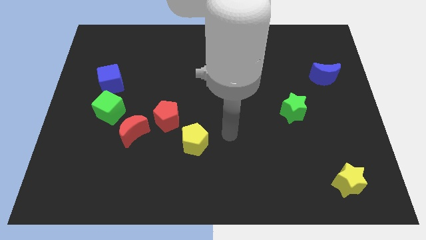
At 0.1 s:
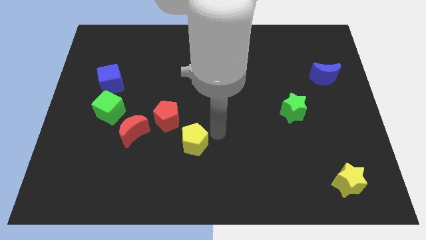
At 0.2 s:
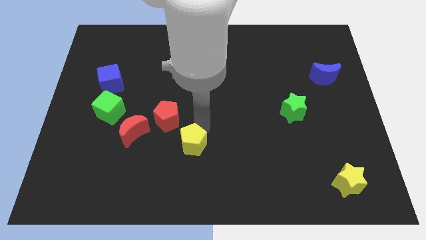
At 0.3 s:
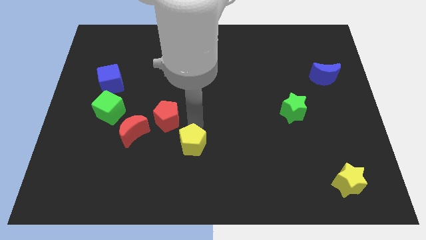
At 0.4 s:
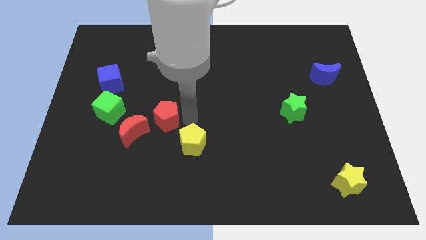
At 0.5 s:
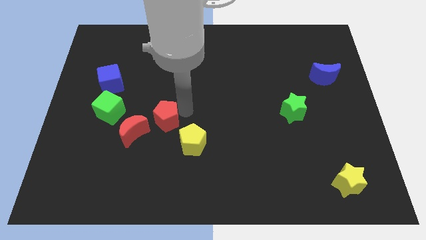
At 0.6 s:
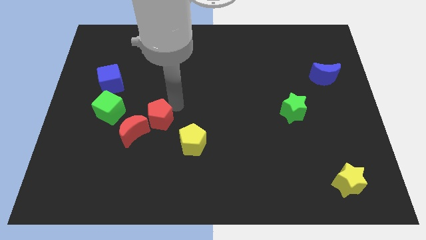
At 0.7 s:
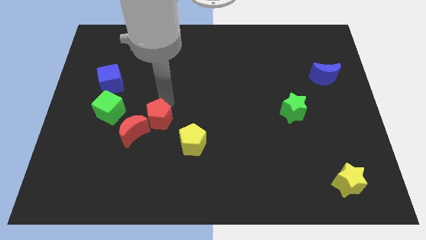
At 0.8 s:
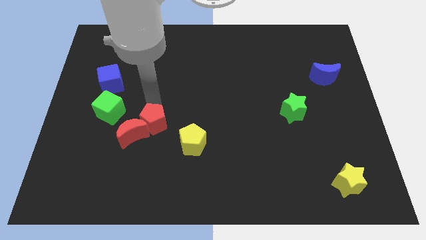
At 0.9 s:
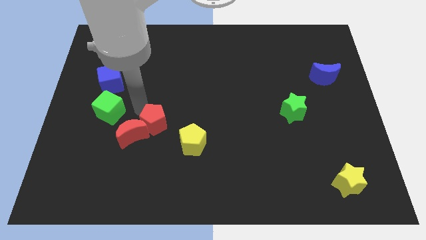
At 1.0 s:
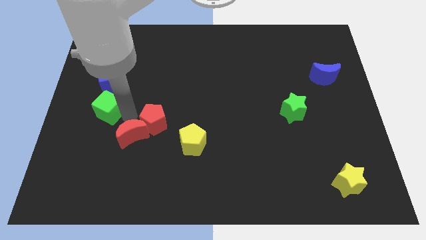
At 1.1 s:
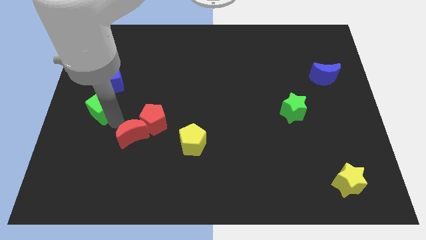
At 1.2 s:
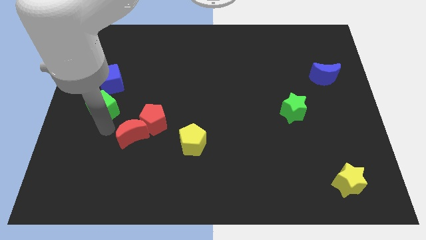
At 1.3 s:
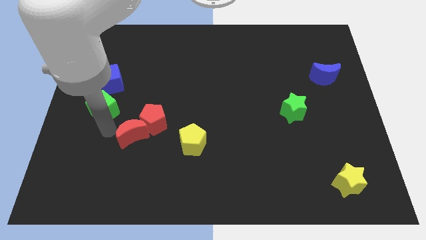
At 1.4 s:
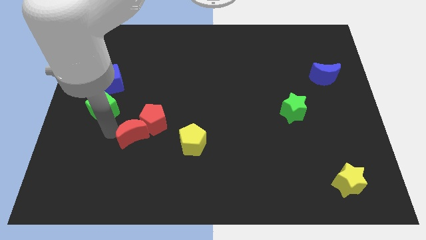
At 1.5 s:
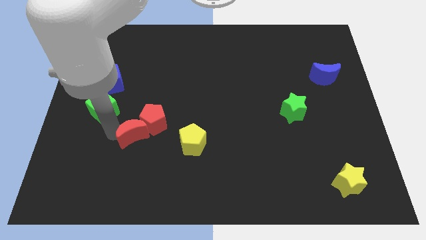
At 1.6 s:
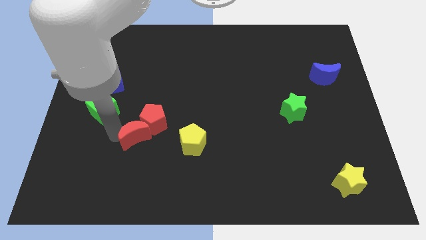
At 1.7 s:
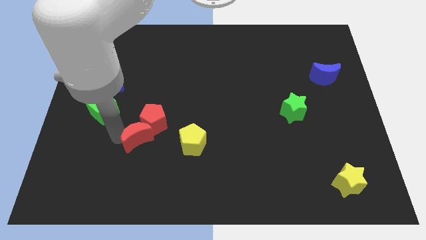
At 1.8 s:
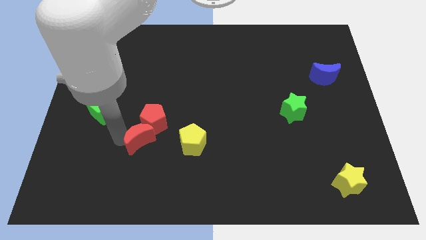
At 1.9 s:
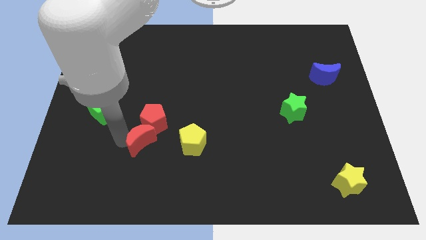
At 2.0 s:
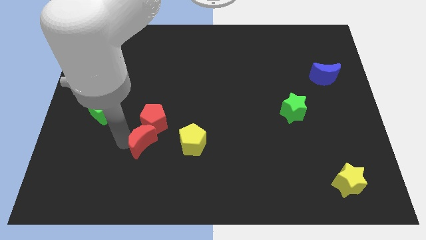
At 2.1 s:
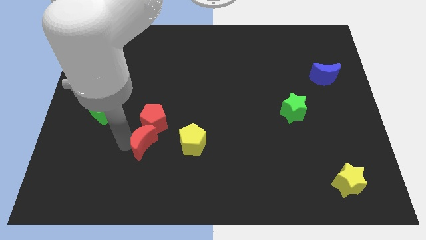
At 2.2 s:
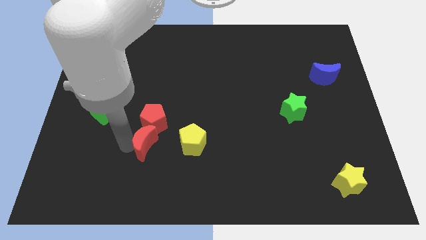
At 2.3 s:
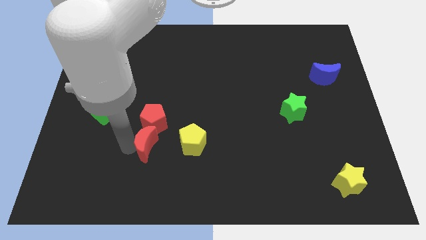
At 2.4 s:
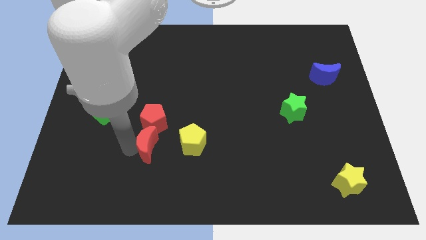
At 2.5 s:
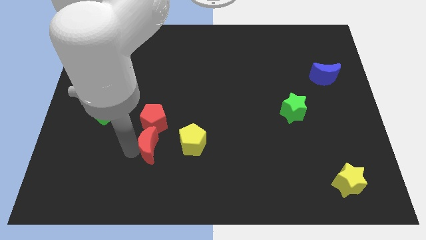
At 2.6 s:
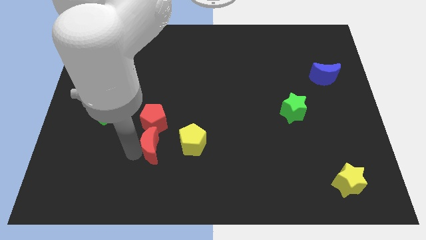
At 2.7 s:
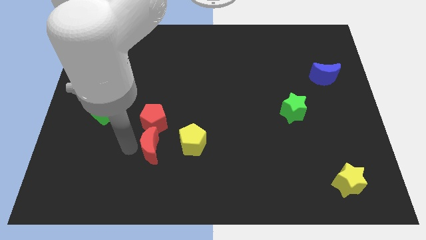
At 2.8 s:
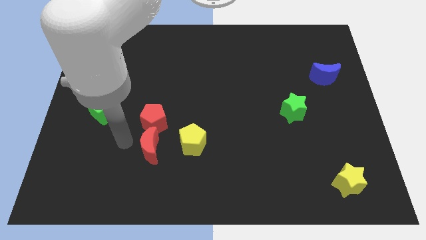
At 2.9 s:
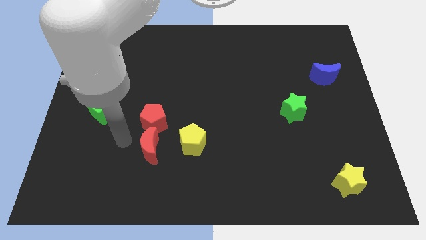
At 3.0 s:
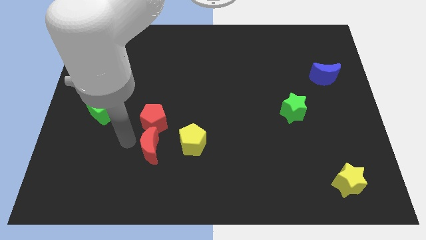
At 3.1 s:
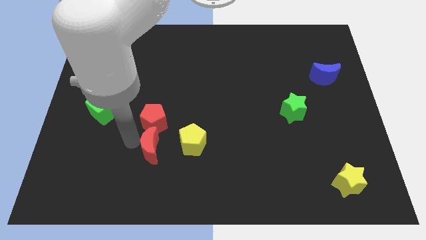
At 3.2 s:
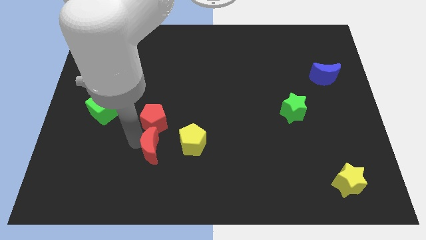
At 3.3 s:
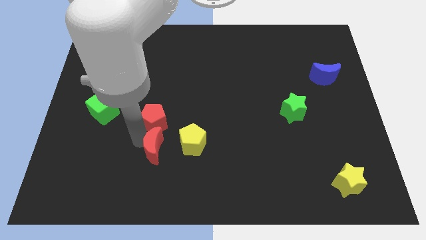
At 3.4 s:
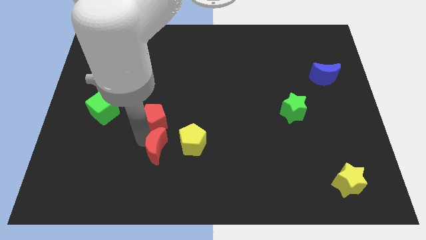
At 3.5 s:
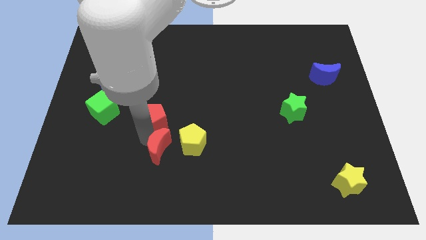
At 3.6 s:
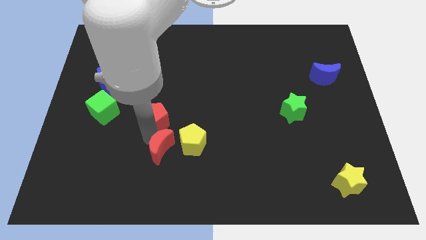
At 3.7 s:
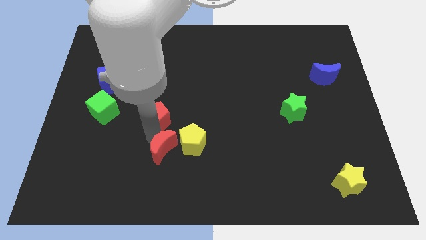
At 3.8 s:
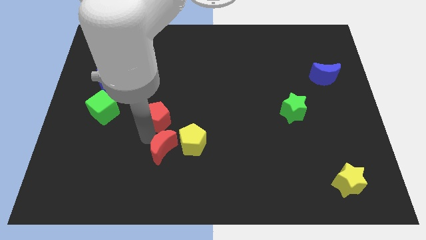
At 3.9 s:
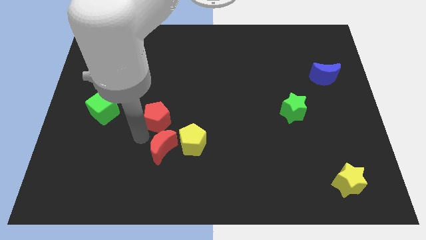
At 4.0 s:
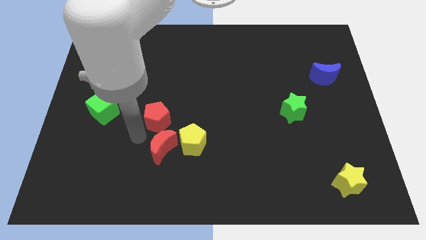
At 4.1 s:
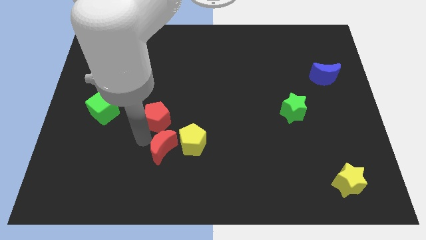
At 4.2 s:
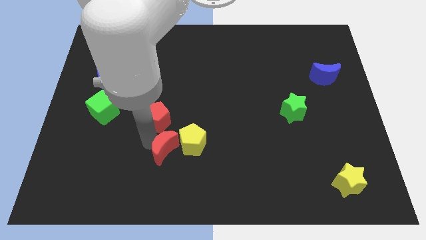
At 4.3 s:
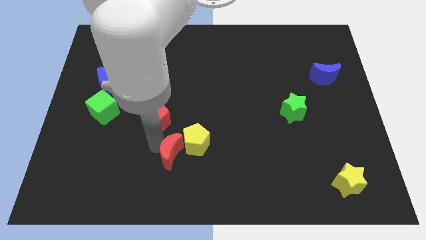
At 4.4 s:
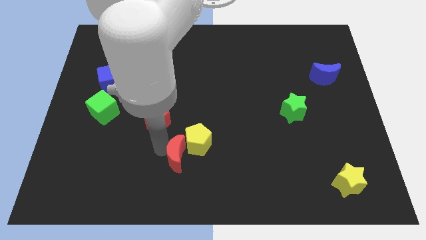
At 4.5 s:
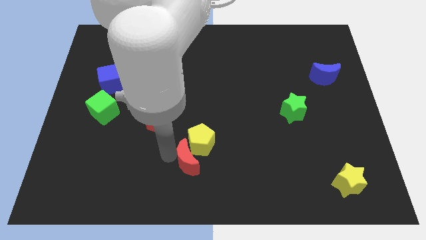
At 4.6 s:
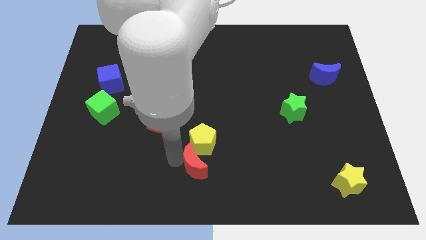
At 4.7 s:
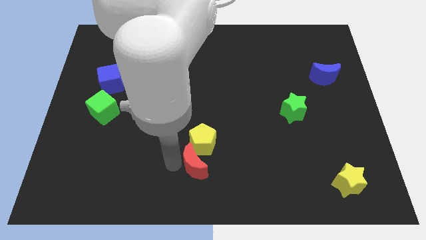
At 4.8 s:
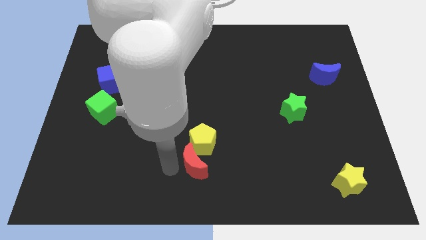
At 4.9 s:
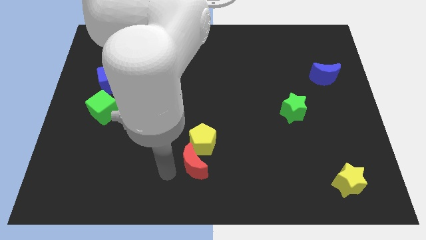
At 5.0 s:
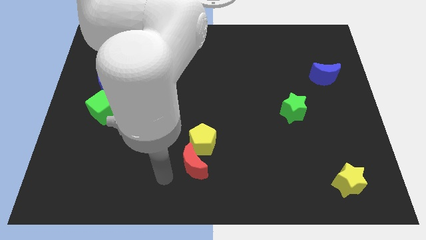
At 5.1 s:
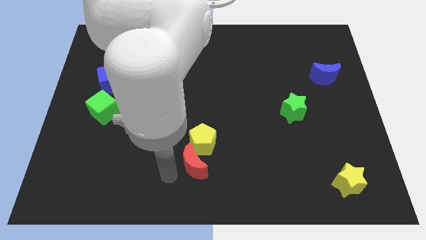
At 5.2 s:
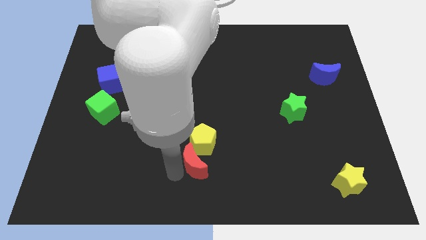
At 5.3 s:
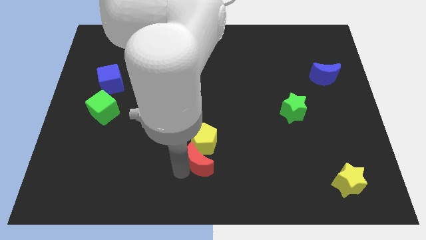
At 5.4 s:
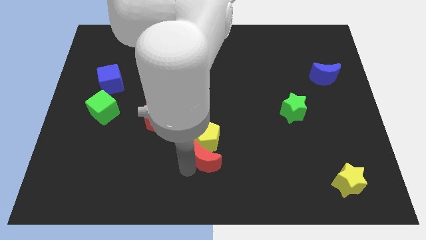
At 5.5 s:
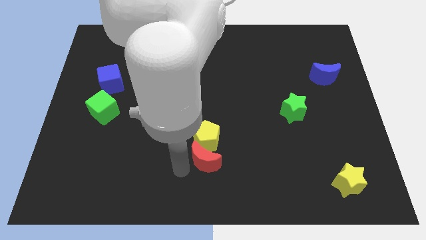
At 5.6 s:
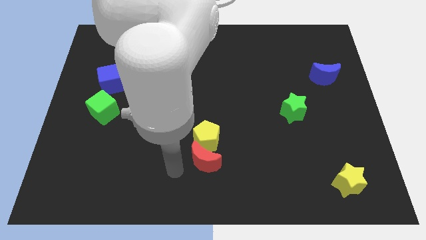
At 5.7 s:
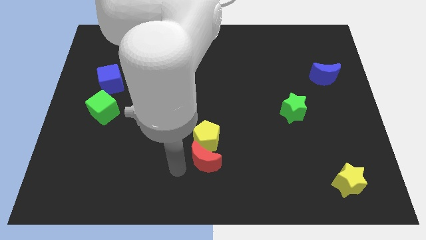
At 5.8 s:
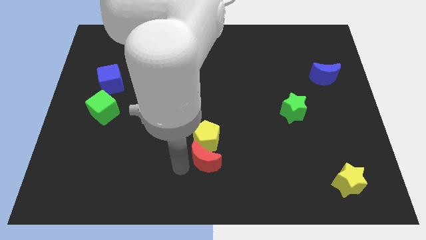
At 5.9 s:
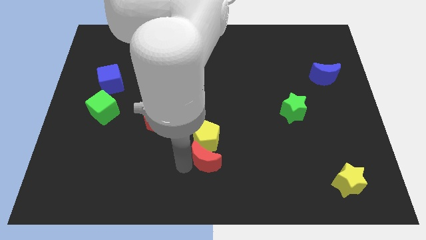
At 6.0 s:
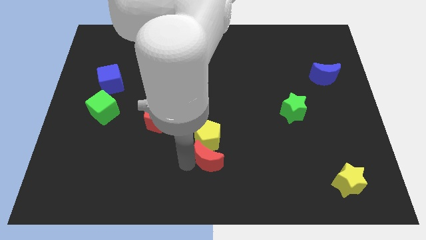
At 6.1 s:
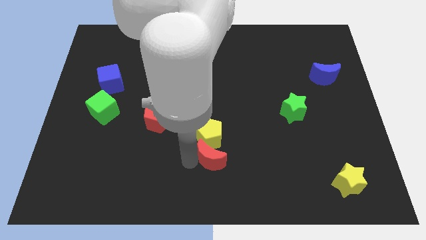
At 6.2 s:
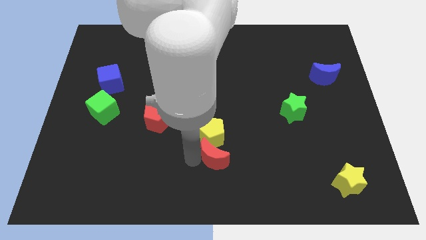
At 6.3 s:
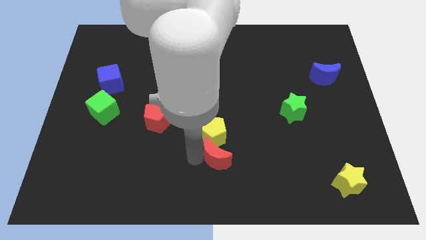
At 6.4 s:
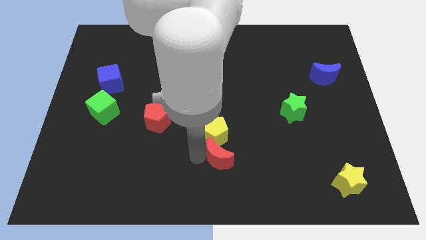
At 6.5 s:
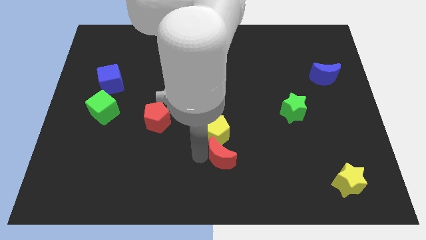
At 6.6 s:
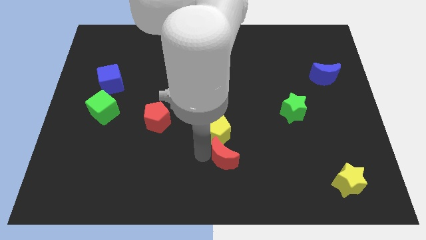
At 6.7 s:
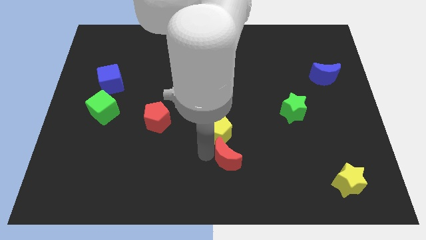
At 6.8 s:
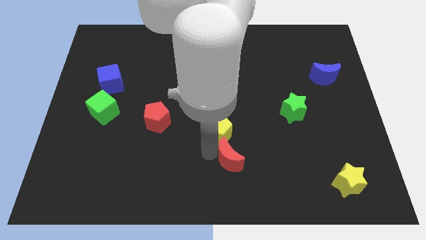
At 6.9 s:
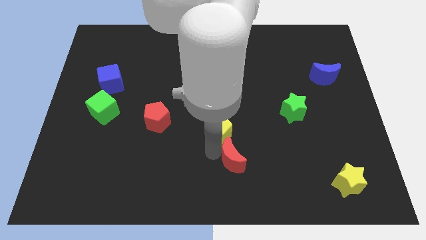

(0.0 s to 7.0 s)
slide the red moon right

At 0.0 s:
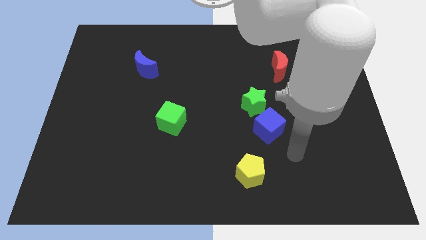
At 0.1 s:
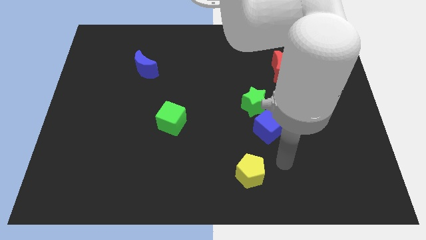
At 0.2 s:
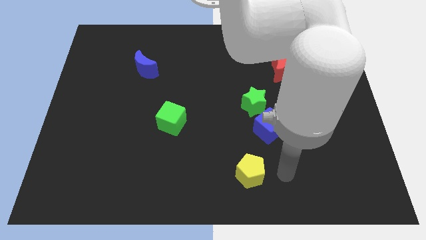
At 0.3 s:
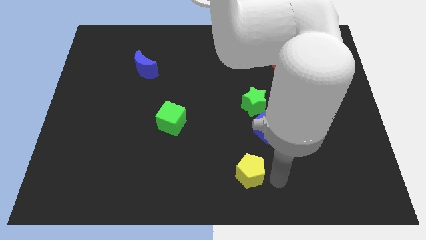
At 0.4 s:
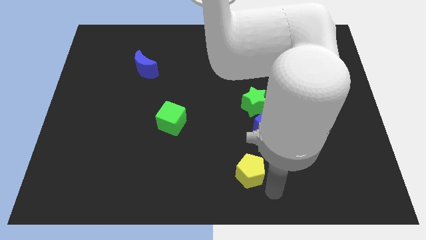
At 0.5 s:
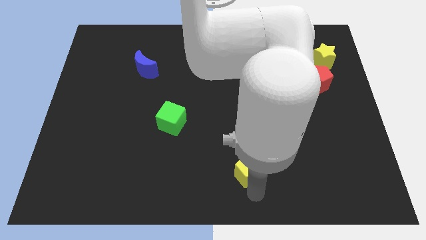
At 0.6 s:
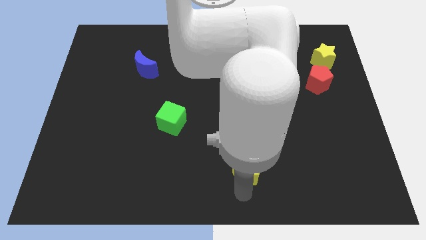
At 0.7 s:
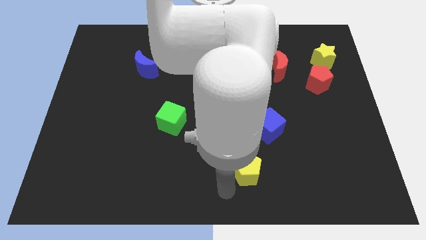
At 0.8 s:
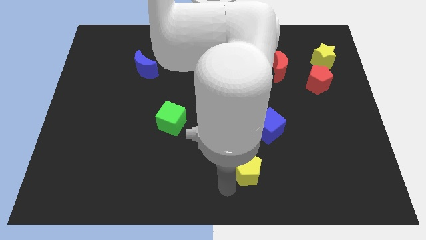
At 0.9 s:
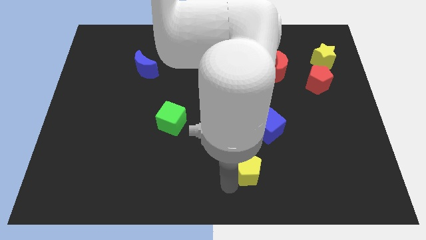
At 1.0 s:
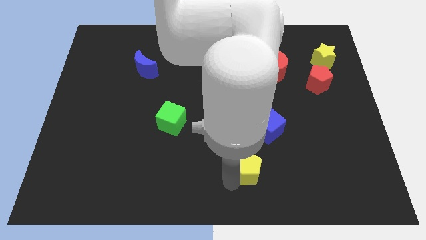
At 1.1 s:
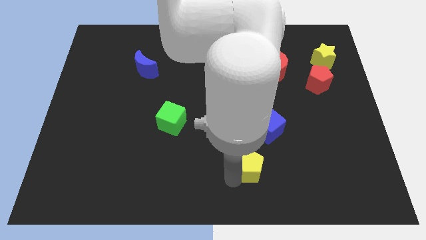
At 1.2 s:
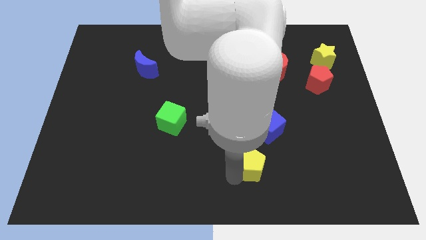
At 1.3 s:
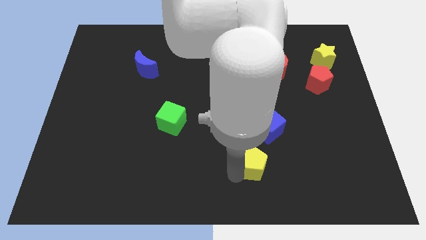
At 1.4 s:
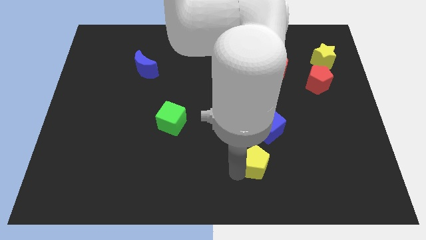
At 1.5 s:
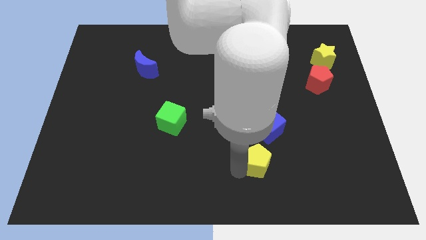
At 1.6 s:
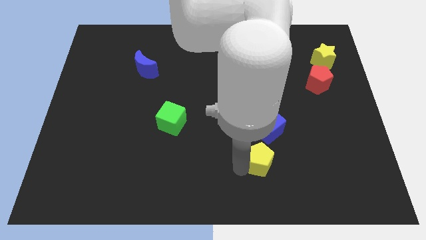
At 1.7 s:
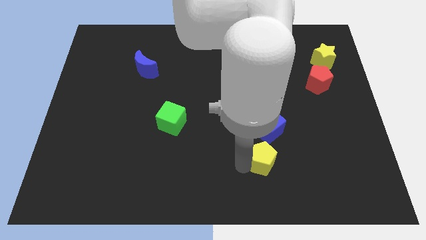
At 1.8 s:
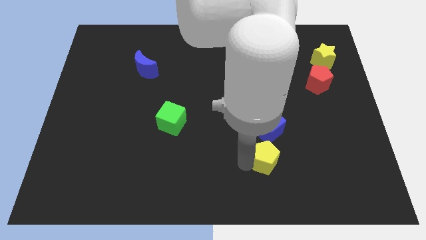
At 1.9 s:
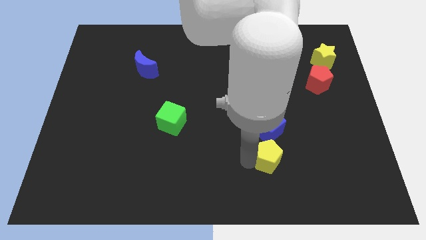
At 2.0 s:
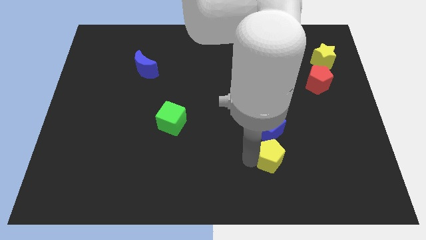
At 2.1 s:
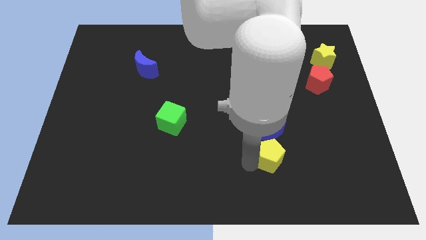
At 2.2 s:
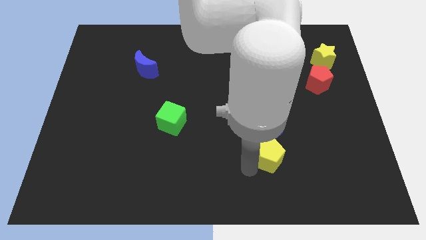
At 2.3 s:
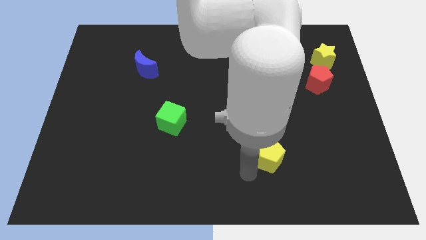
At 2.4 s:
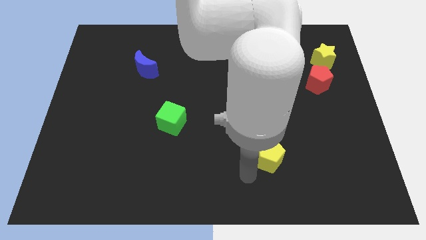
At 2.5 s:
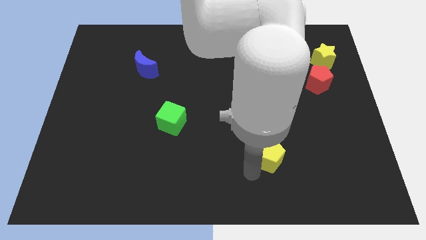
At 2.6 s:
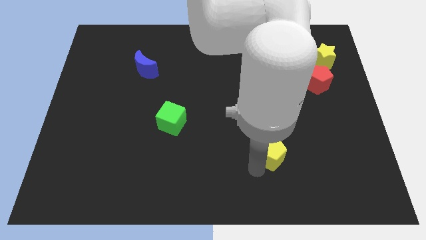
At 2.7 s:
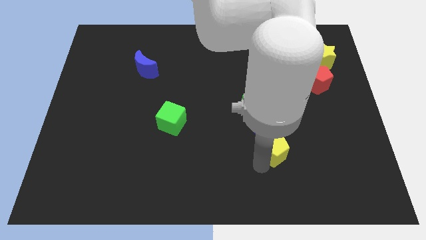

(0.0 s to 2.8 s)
slightly slide the yellow pentagon upwards and right
